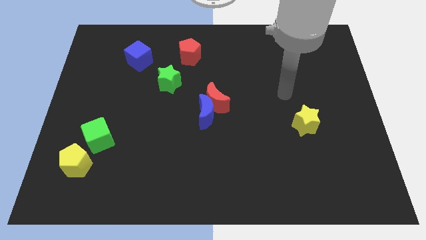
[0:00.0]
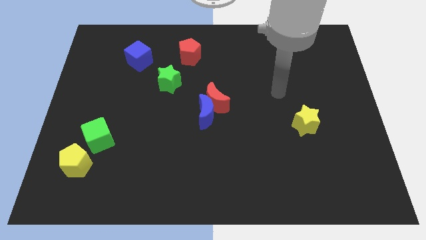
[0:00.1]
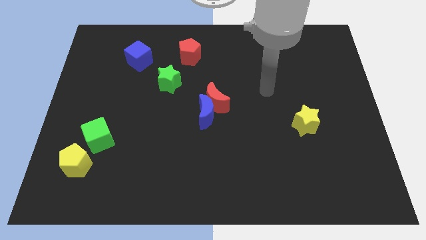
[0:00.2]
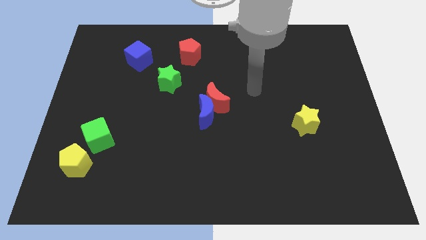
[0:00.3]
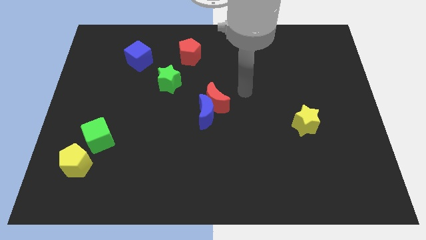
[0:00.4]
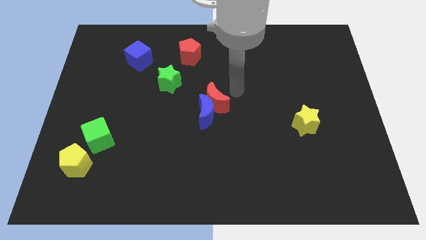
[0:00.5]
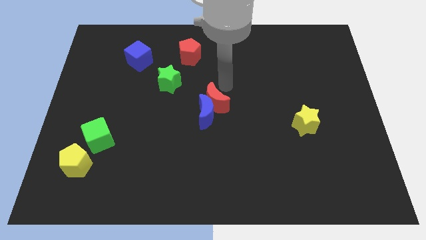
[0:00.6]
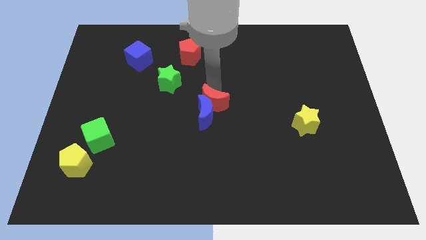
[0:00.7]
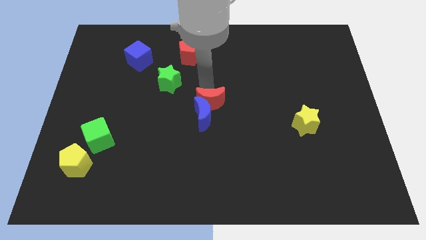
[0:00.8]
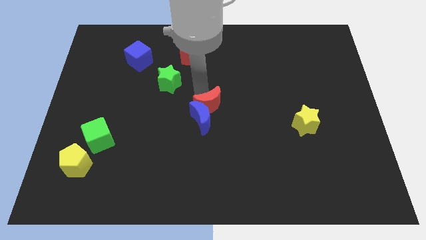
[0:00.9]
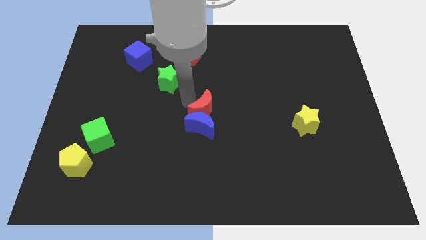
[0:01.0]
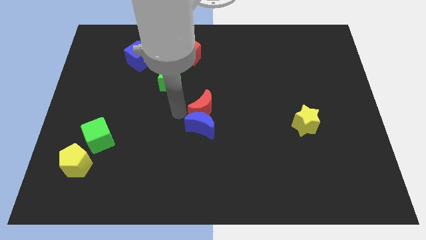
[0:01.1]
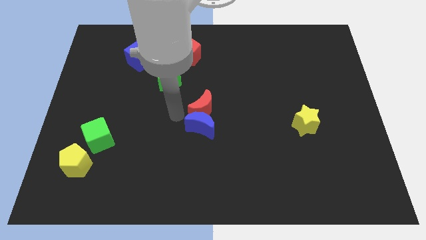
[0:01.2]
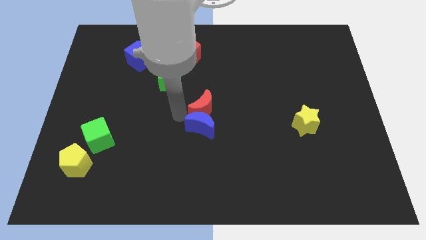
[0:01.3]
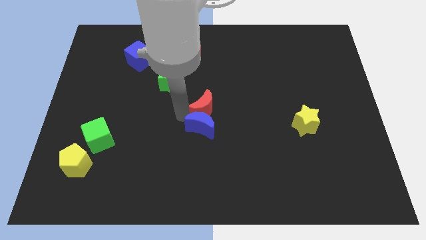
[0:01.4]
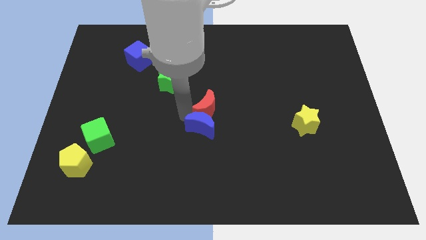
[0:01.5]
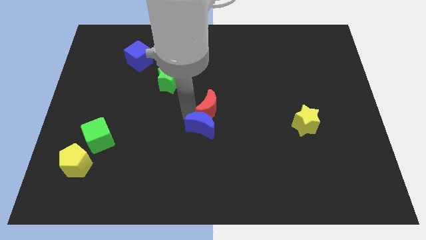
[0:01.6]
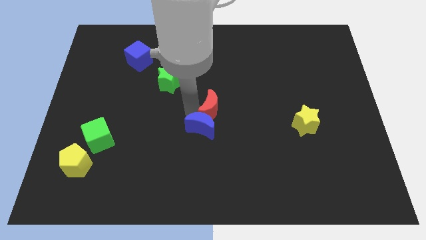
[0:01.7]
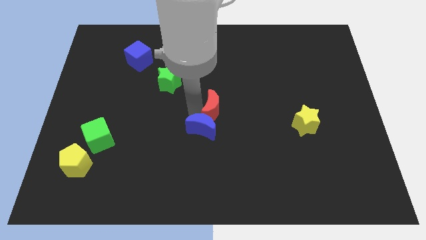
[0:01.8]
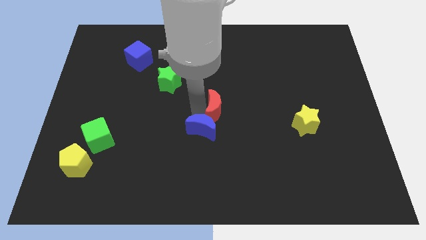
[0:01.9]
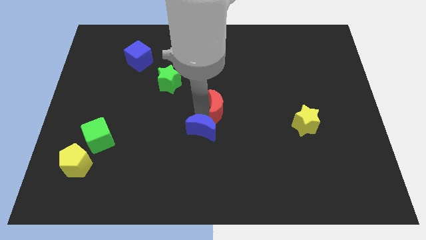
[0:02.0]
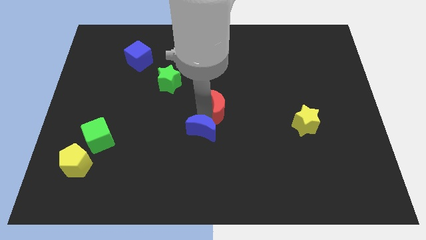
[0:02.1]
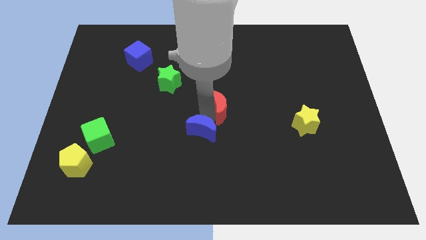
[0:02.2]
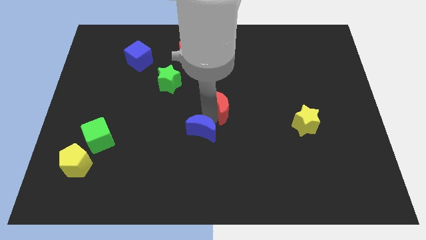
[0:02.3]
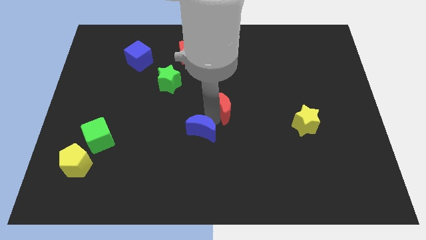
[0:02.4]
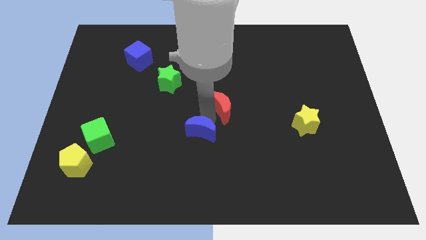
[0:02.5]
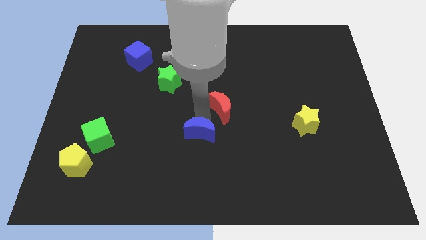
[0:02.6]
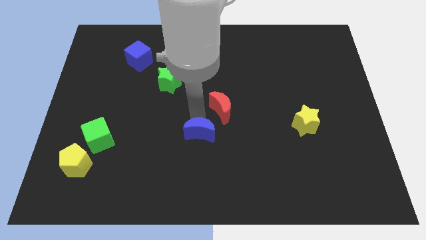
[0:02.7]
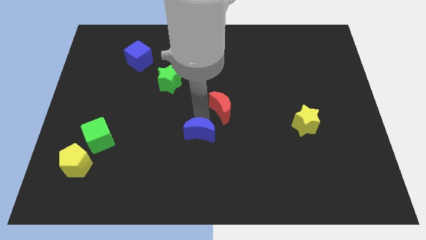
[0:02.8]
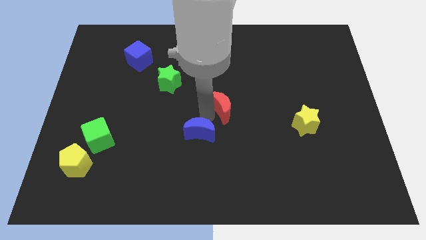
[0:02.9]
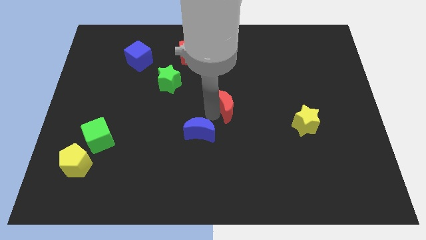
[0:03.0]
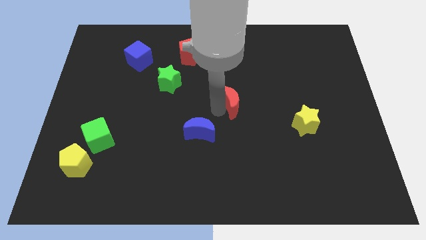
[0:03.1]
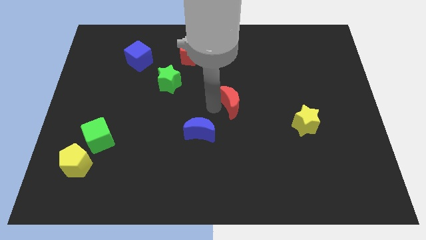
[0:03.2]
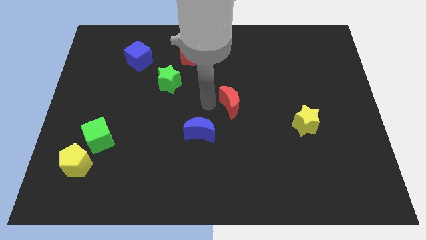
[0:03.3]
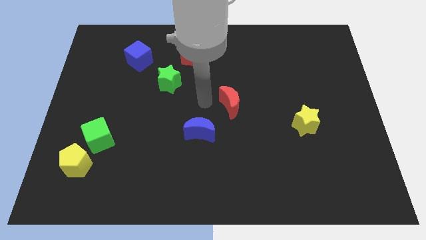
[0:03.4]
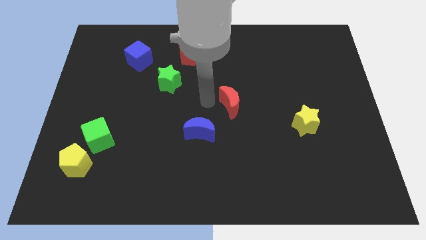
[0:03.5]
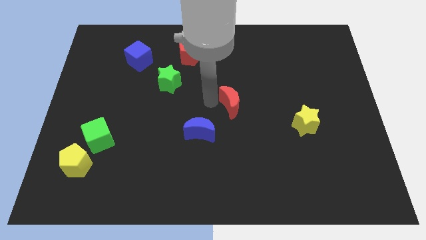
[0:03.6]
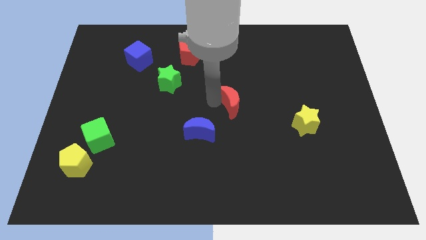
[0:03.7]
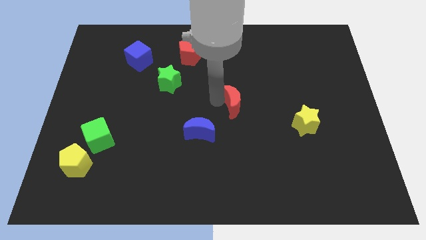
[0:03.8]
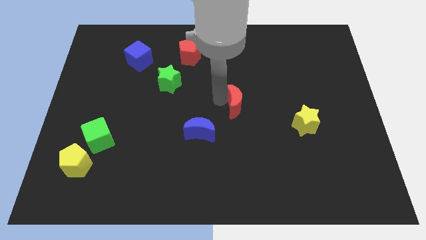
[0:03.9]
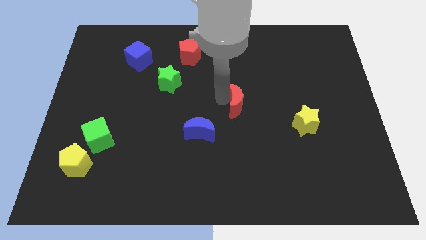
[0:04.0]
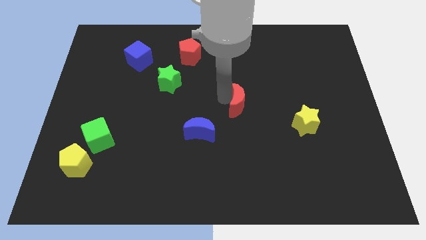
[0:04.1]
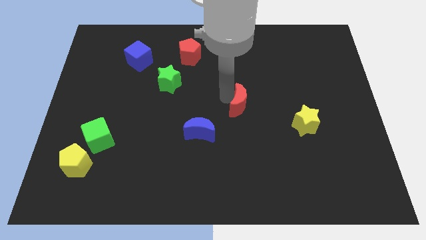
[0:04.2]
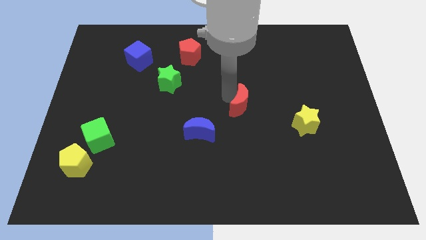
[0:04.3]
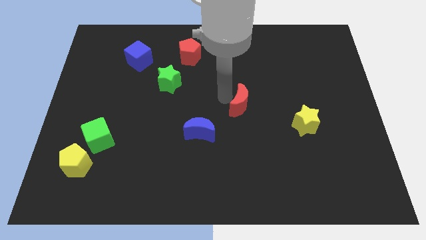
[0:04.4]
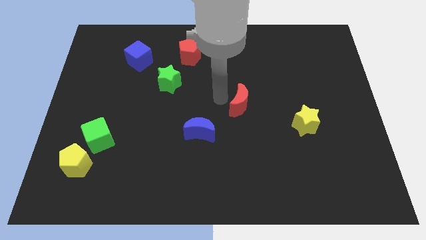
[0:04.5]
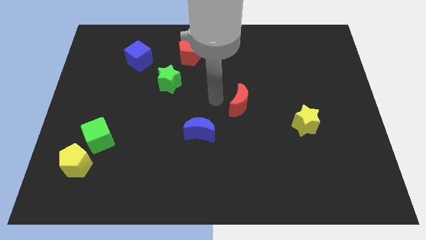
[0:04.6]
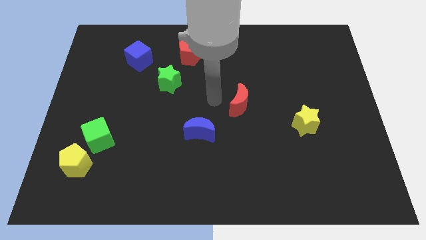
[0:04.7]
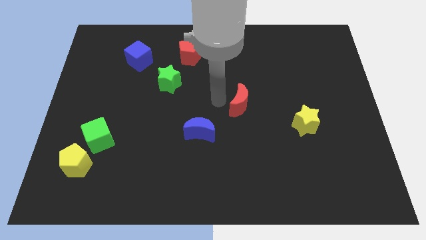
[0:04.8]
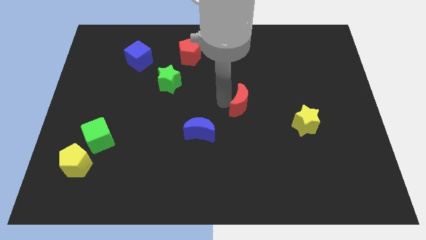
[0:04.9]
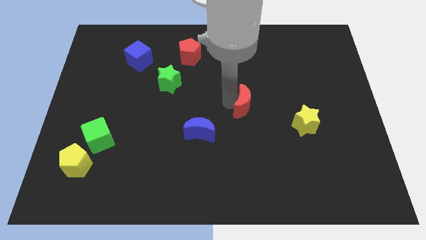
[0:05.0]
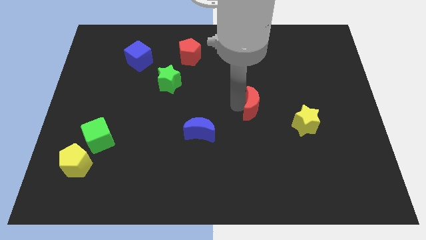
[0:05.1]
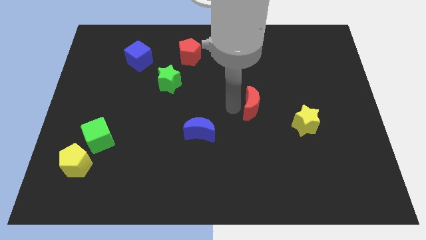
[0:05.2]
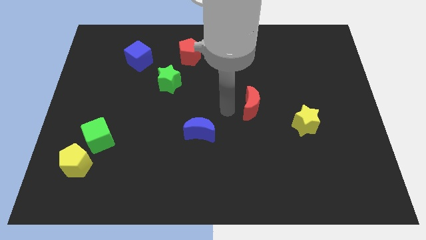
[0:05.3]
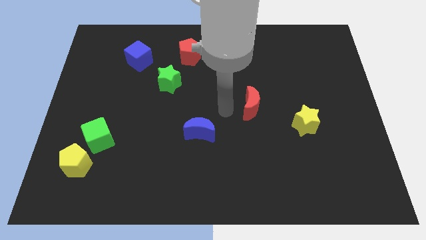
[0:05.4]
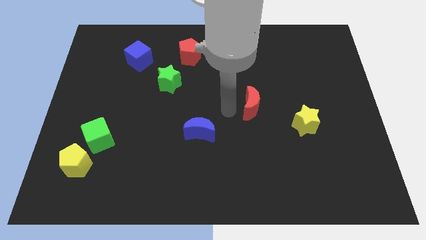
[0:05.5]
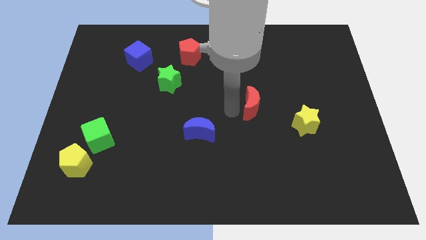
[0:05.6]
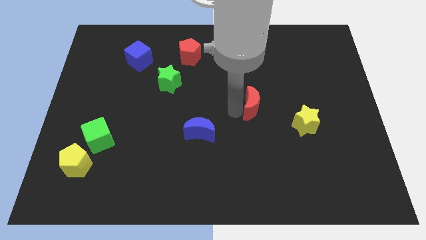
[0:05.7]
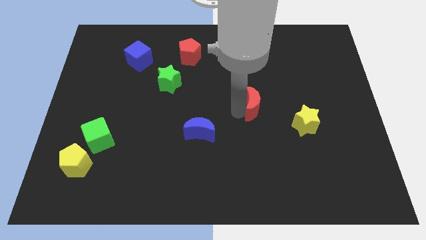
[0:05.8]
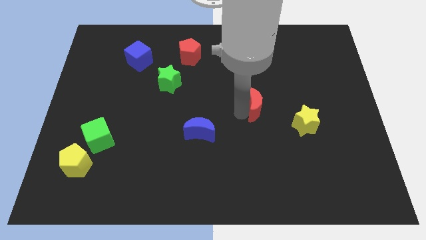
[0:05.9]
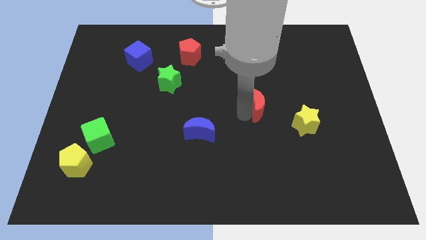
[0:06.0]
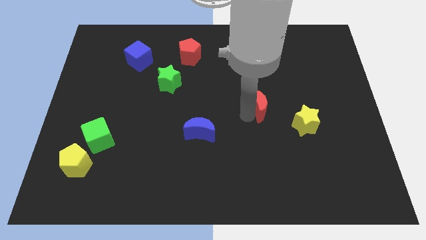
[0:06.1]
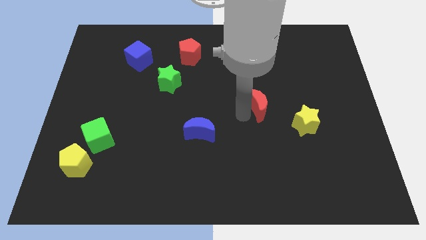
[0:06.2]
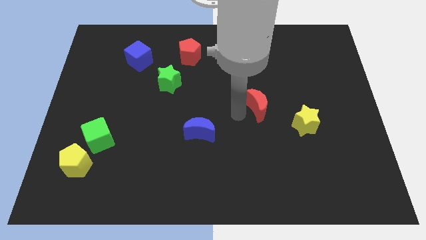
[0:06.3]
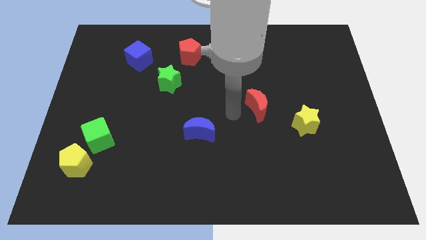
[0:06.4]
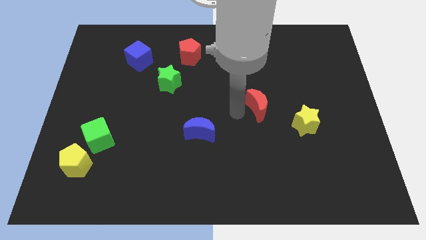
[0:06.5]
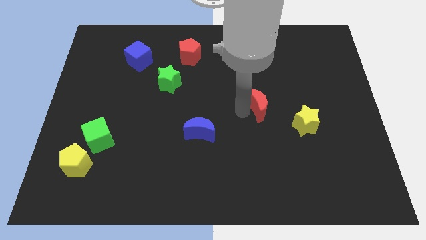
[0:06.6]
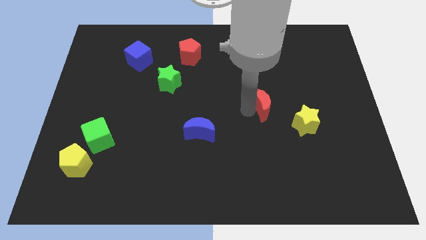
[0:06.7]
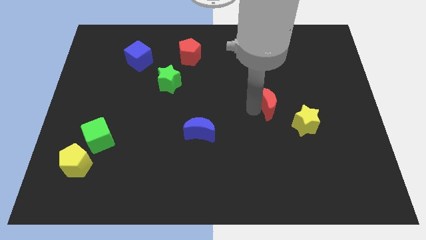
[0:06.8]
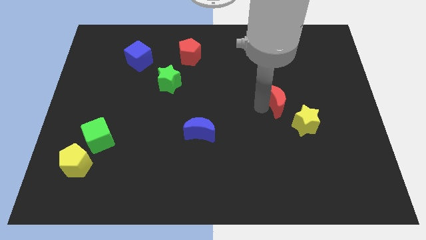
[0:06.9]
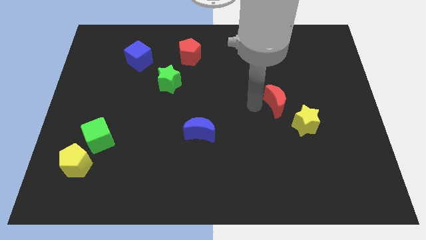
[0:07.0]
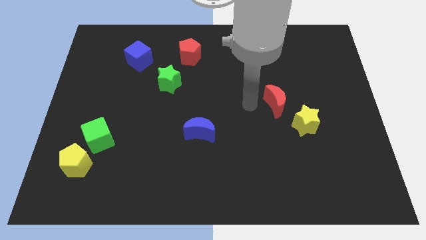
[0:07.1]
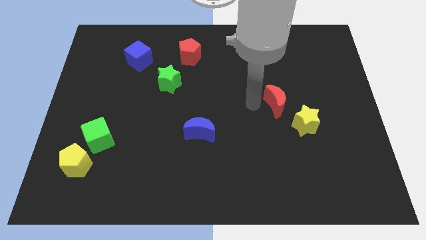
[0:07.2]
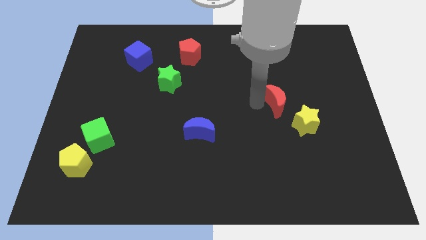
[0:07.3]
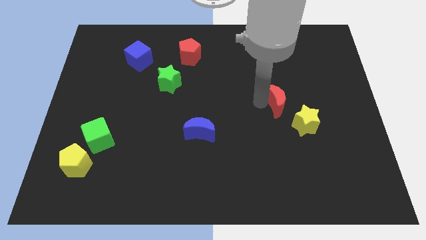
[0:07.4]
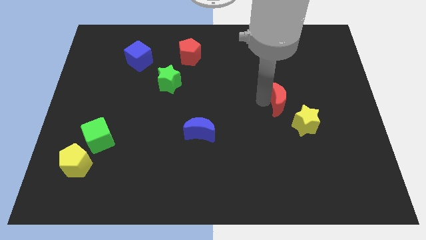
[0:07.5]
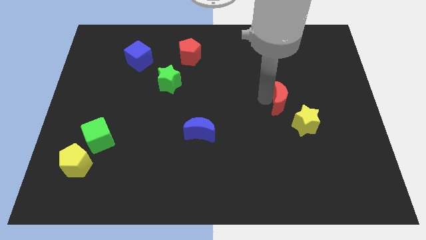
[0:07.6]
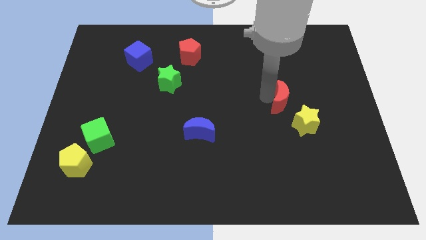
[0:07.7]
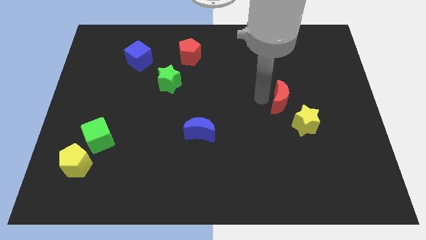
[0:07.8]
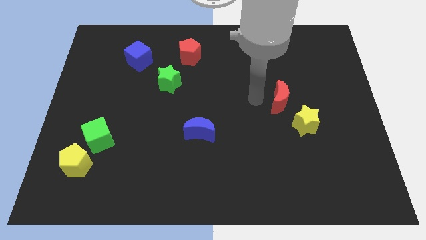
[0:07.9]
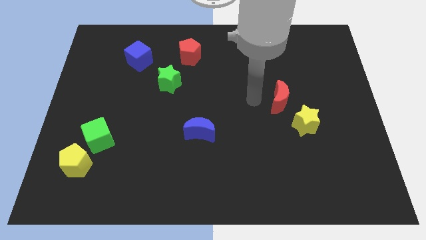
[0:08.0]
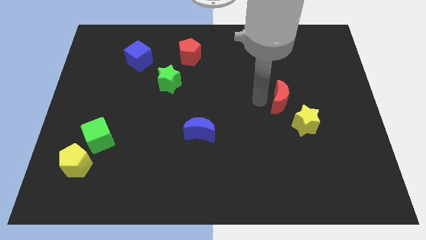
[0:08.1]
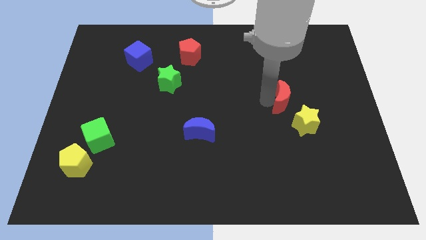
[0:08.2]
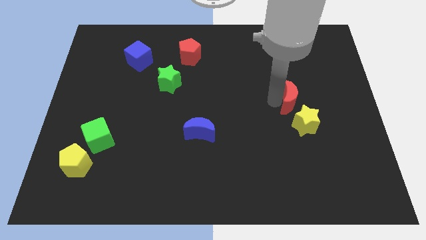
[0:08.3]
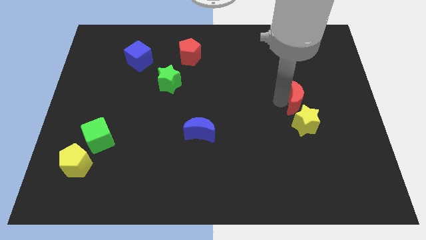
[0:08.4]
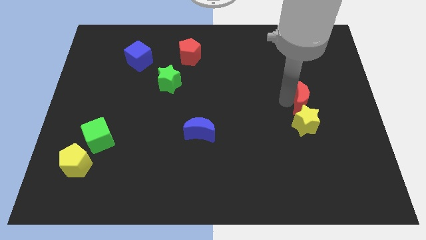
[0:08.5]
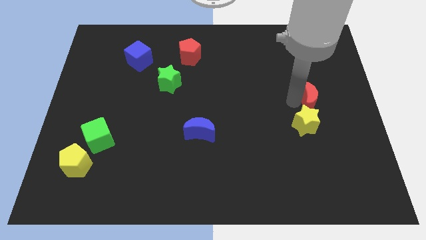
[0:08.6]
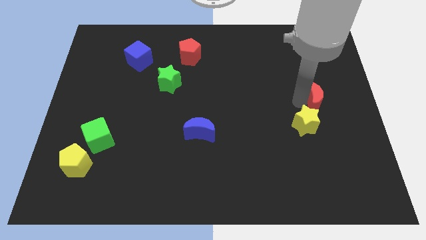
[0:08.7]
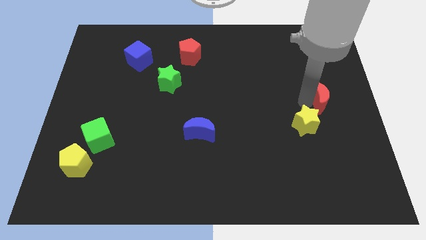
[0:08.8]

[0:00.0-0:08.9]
slide the red moon to the right side of the board
